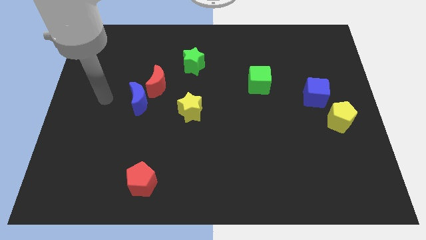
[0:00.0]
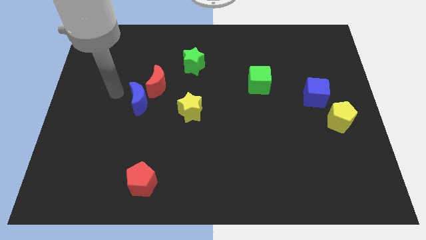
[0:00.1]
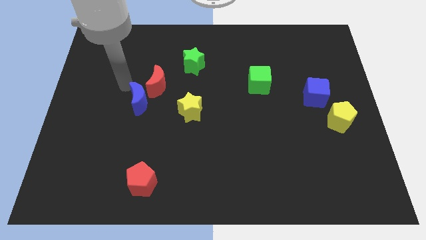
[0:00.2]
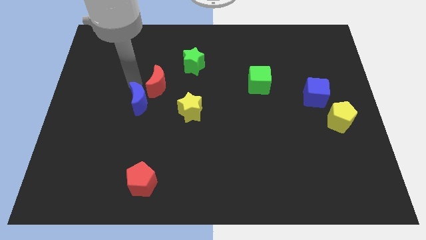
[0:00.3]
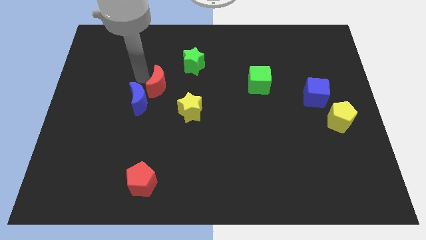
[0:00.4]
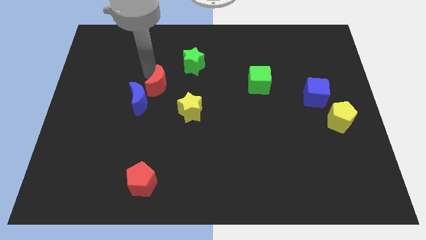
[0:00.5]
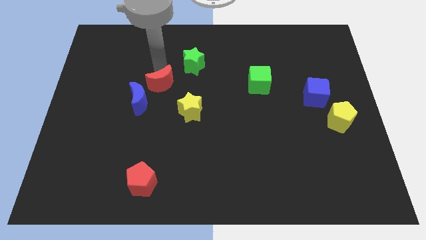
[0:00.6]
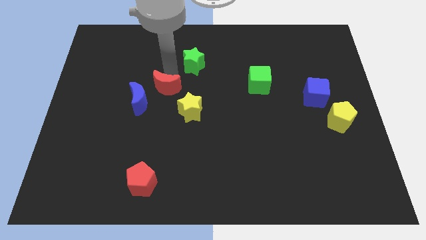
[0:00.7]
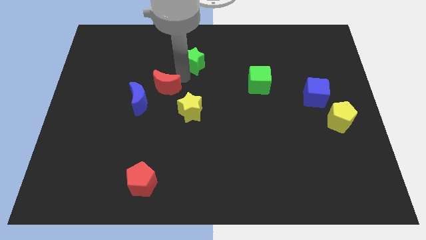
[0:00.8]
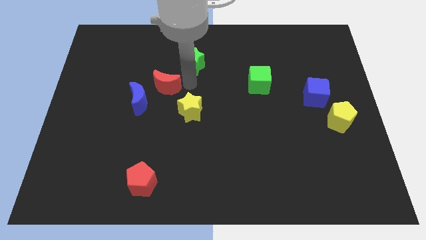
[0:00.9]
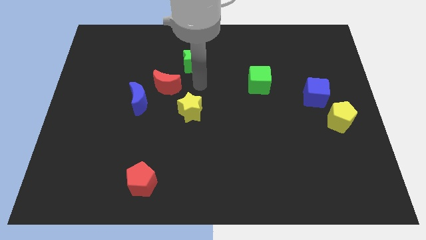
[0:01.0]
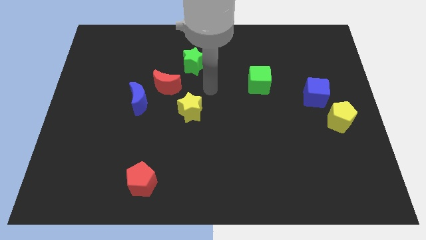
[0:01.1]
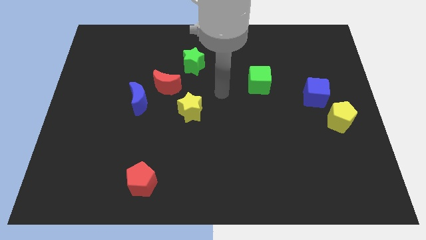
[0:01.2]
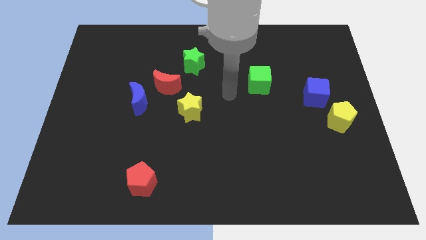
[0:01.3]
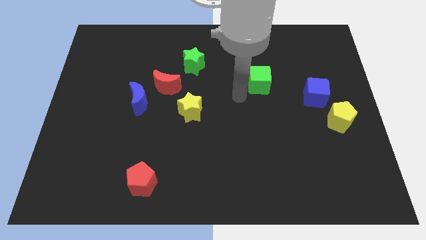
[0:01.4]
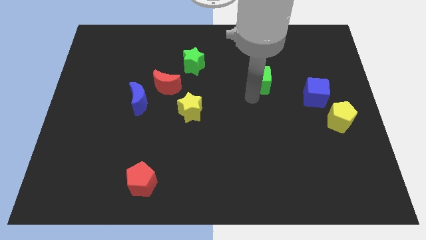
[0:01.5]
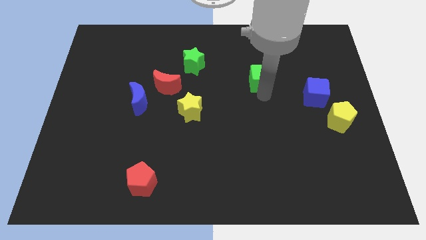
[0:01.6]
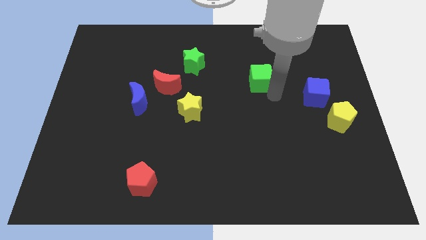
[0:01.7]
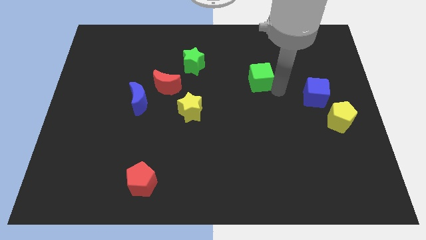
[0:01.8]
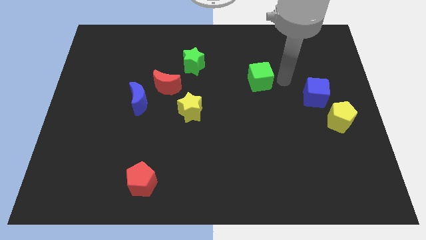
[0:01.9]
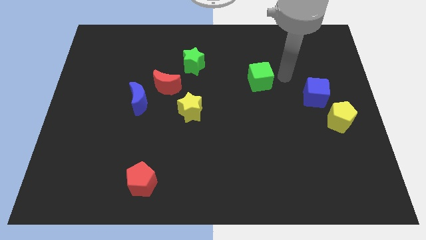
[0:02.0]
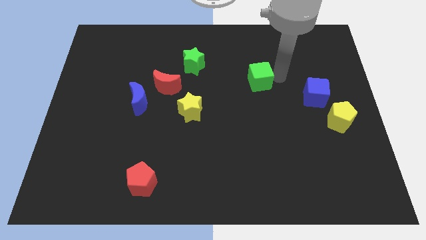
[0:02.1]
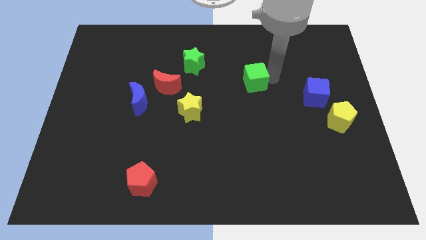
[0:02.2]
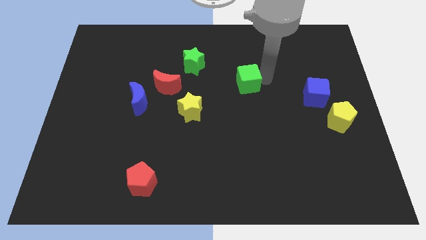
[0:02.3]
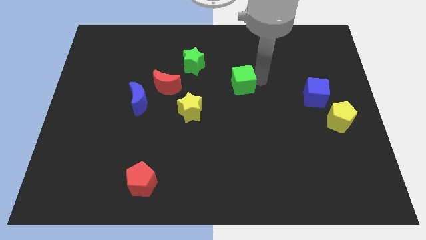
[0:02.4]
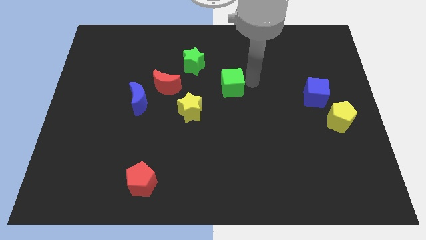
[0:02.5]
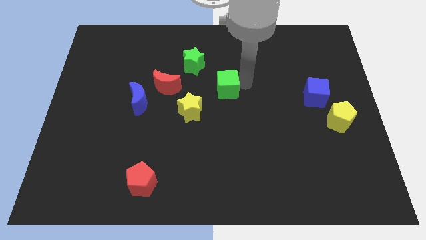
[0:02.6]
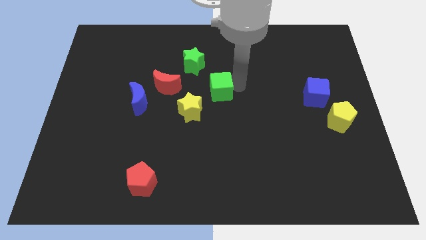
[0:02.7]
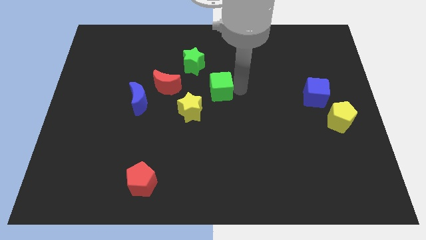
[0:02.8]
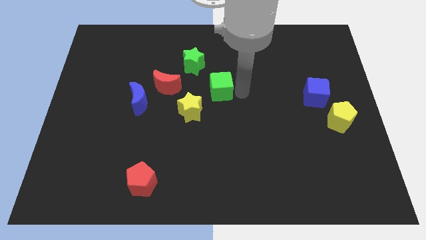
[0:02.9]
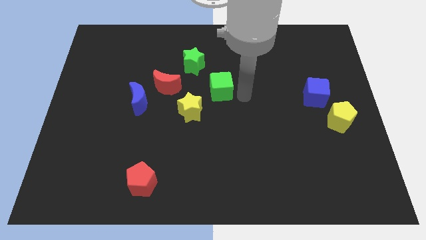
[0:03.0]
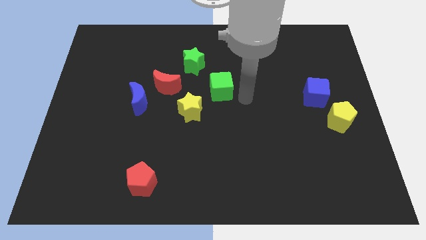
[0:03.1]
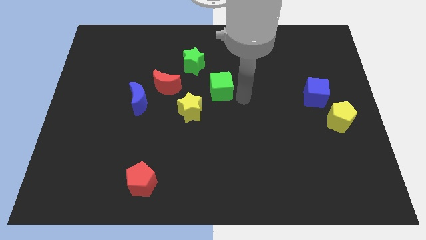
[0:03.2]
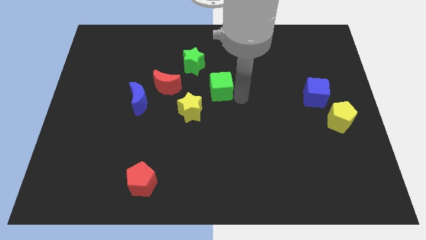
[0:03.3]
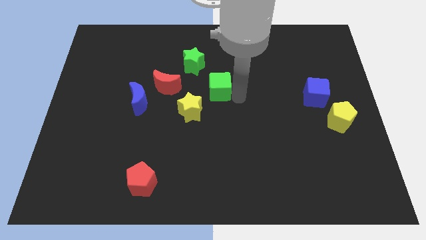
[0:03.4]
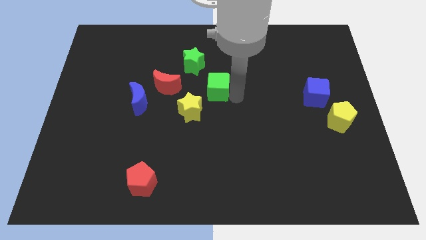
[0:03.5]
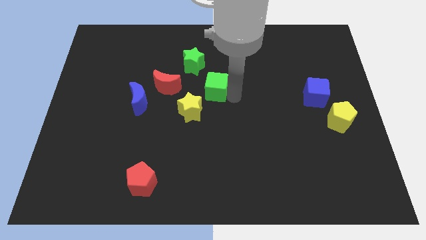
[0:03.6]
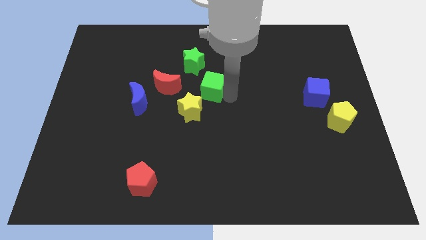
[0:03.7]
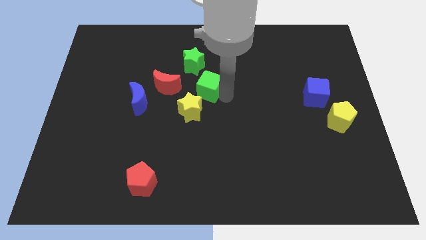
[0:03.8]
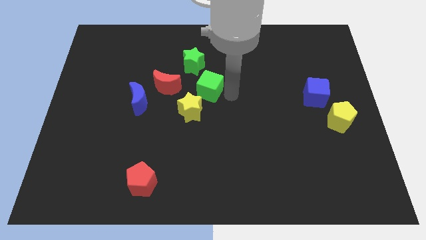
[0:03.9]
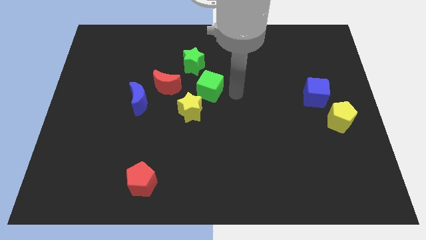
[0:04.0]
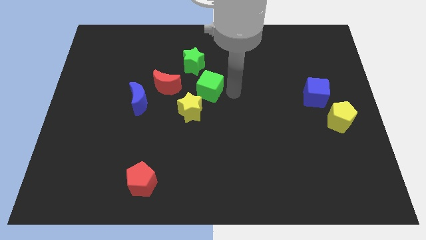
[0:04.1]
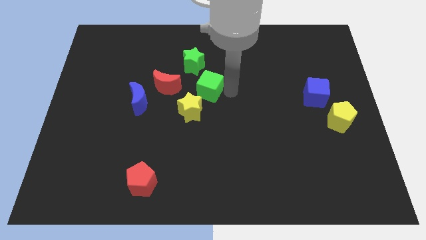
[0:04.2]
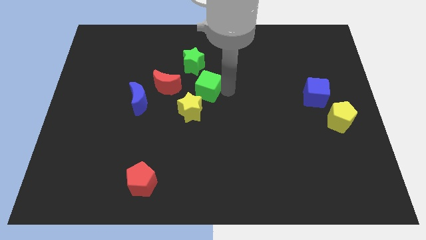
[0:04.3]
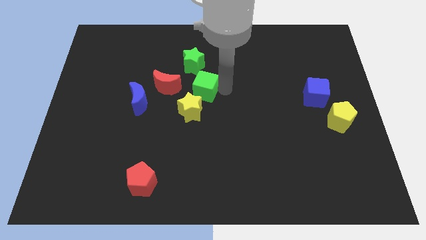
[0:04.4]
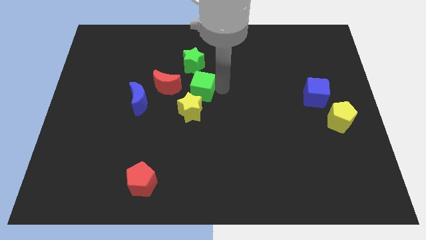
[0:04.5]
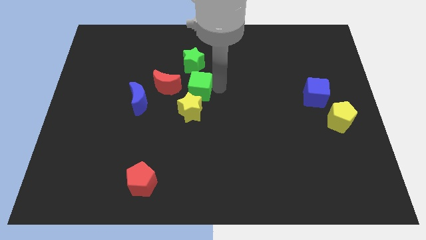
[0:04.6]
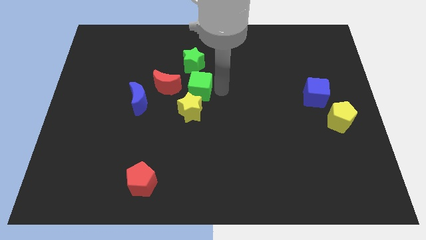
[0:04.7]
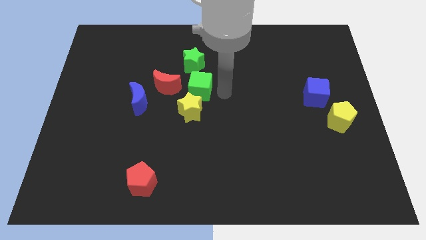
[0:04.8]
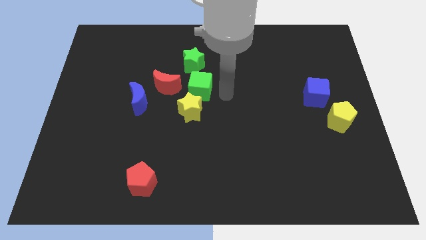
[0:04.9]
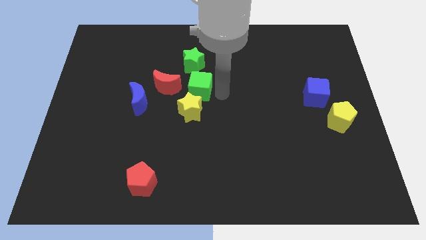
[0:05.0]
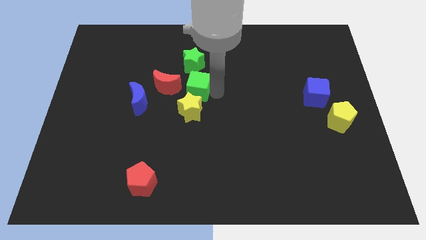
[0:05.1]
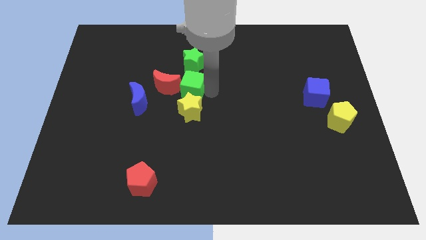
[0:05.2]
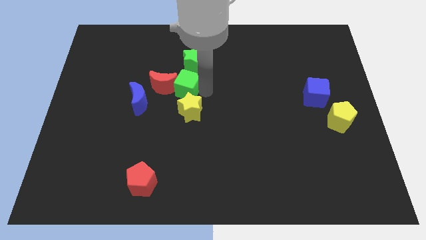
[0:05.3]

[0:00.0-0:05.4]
slide the green cube next to the red moon
